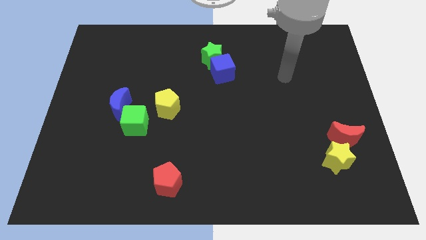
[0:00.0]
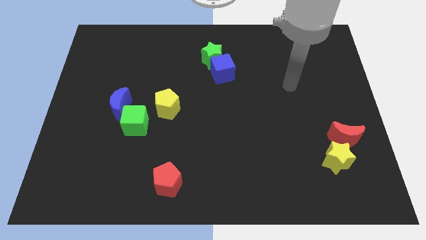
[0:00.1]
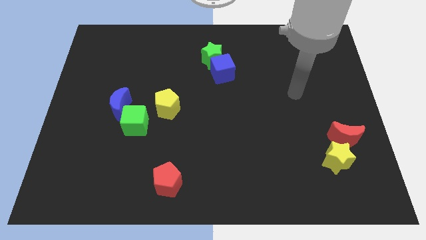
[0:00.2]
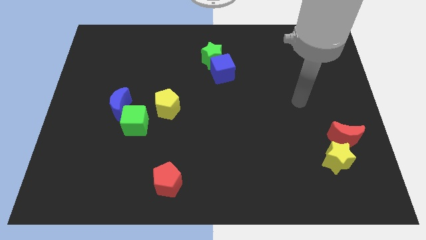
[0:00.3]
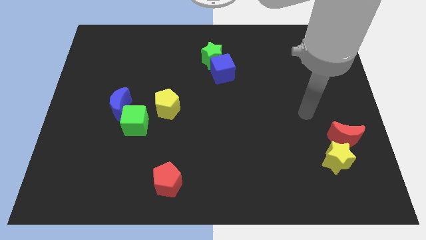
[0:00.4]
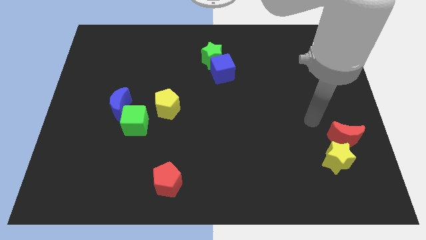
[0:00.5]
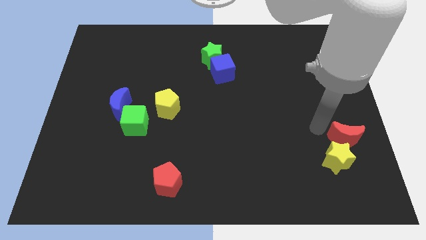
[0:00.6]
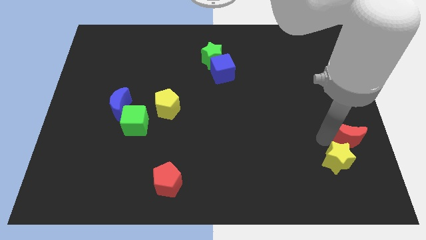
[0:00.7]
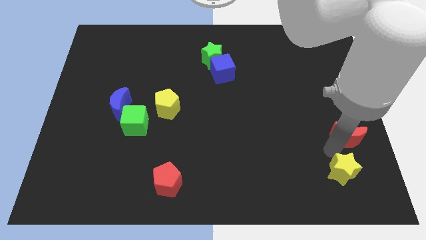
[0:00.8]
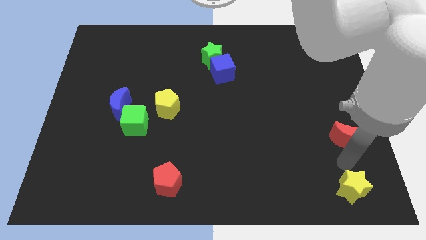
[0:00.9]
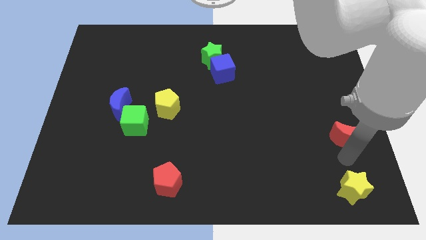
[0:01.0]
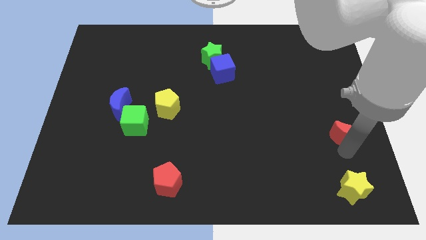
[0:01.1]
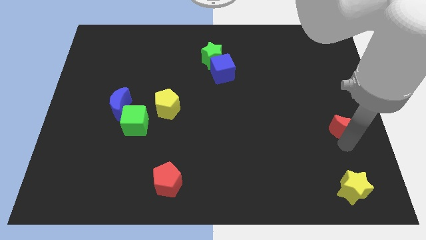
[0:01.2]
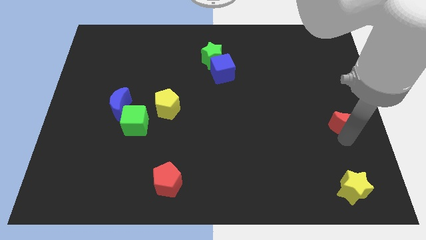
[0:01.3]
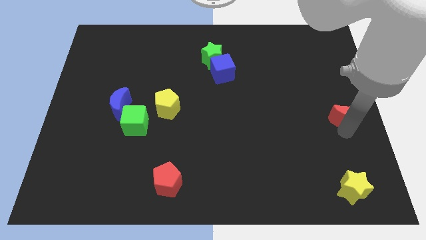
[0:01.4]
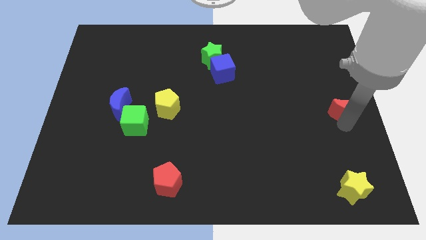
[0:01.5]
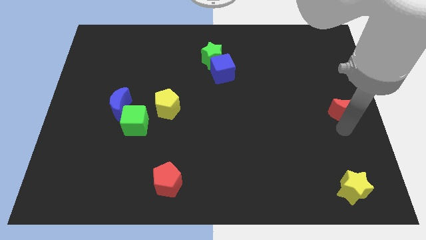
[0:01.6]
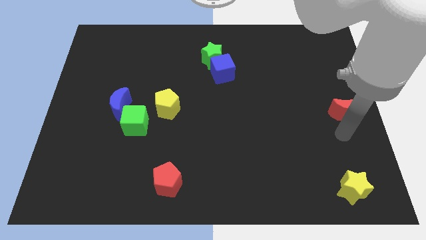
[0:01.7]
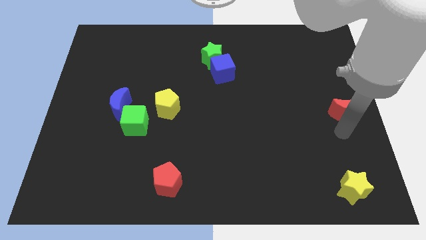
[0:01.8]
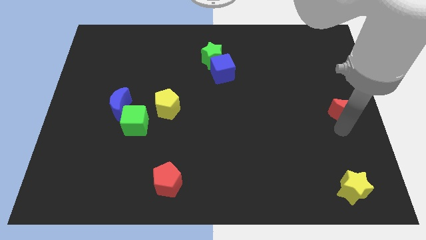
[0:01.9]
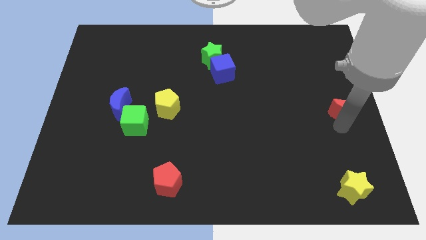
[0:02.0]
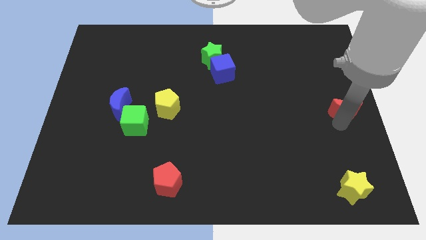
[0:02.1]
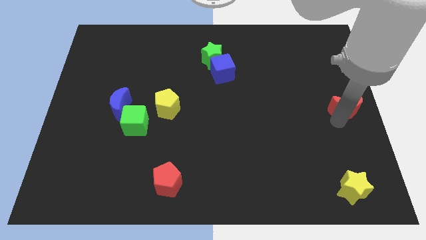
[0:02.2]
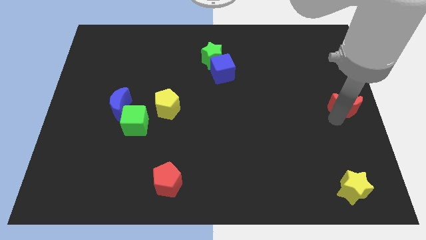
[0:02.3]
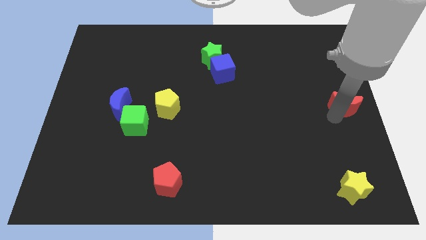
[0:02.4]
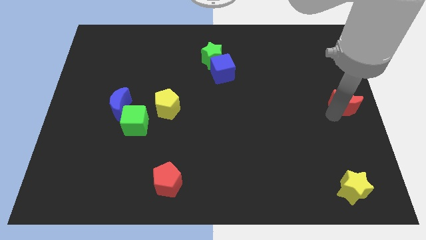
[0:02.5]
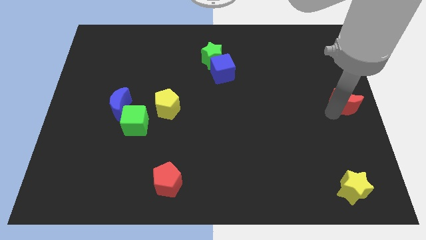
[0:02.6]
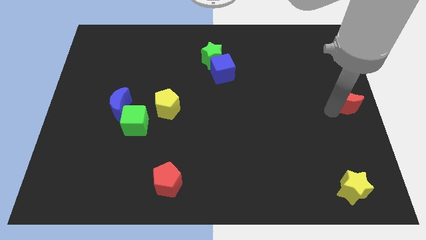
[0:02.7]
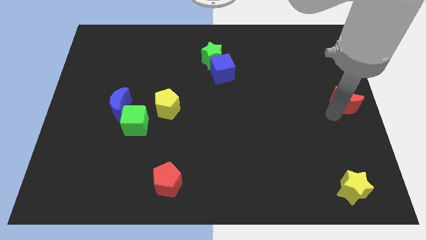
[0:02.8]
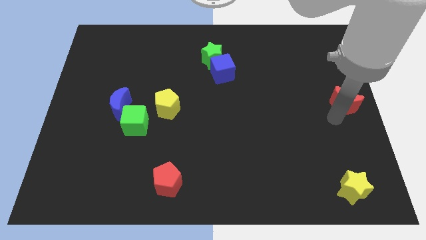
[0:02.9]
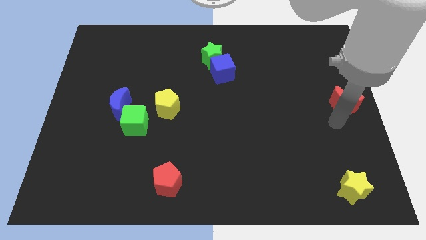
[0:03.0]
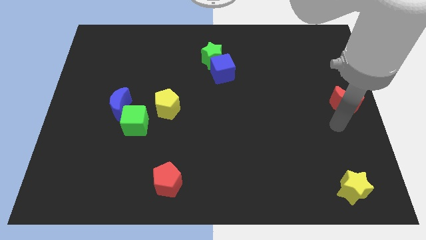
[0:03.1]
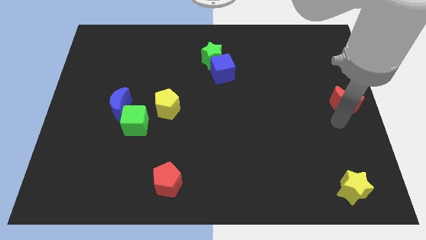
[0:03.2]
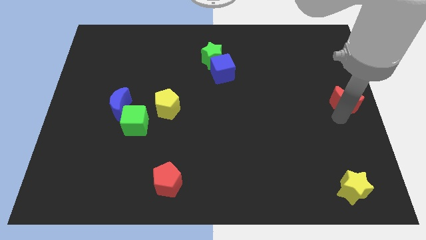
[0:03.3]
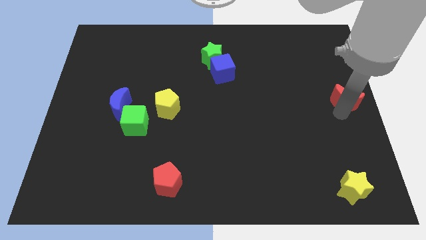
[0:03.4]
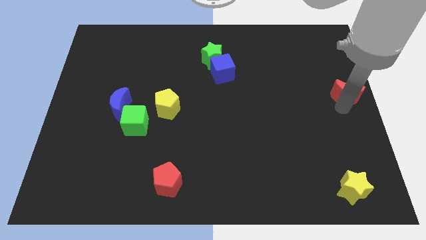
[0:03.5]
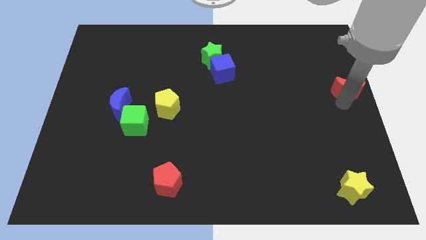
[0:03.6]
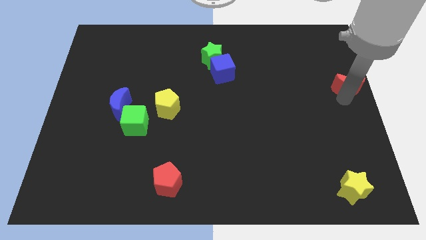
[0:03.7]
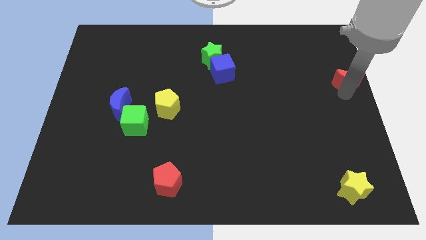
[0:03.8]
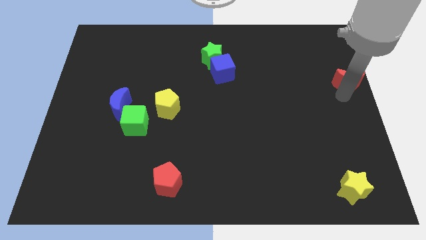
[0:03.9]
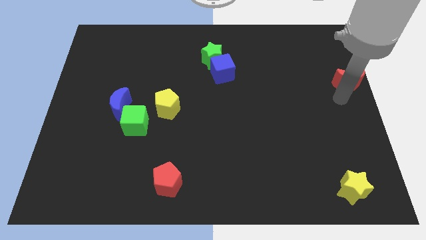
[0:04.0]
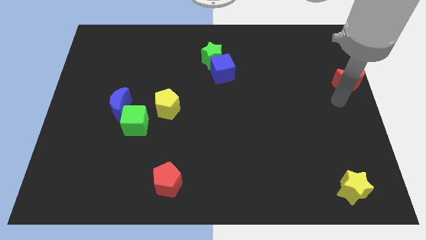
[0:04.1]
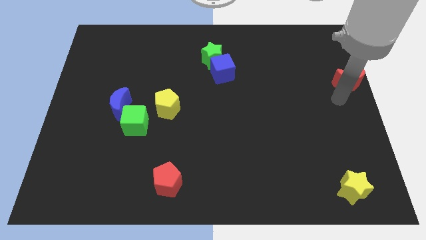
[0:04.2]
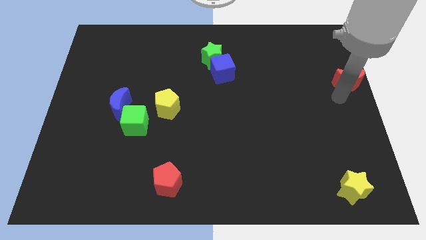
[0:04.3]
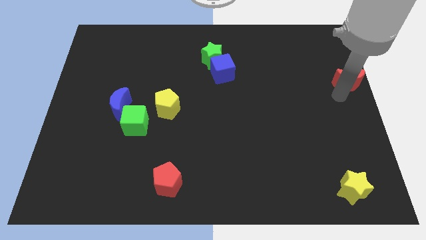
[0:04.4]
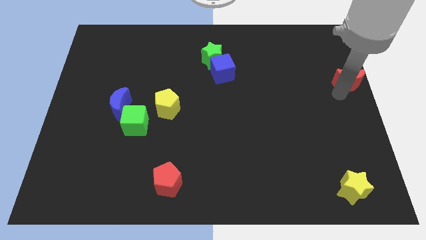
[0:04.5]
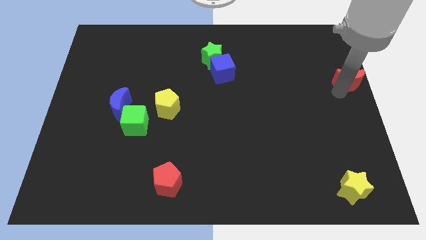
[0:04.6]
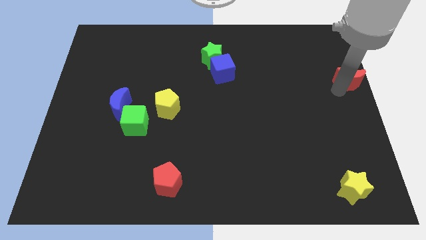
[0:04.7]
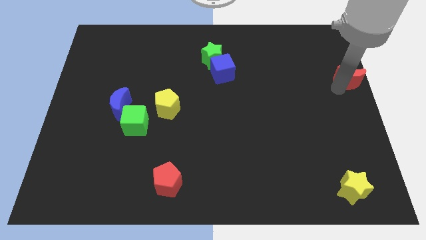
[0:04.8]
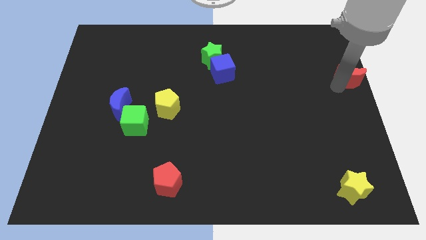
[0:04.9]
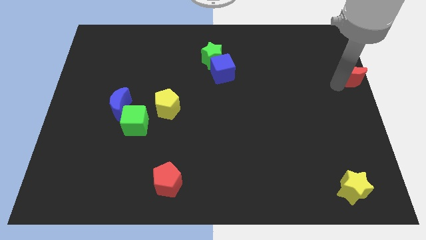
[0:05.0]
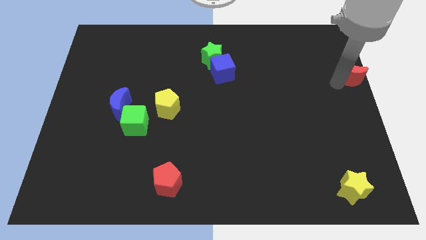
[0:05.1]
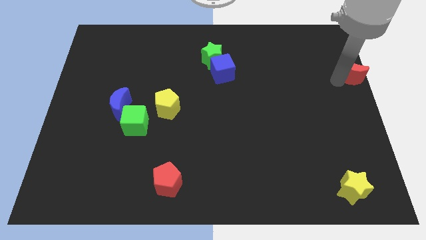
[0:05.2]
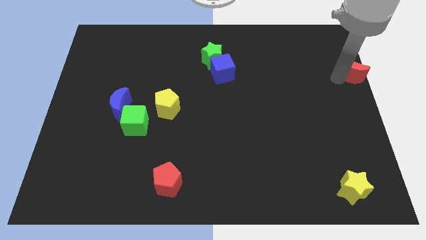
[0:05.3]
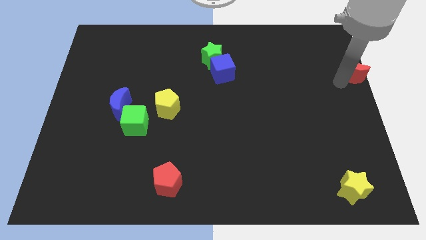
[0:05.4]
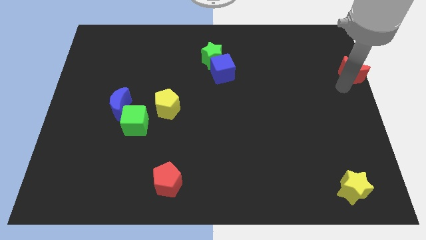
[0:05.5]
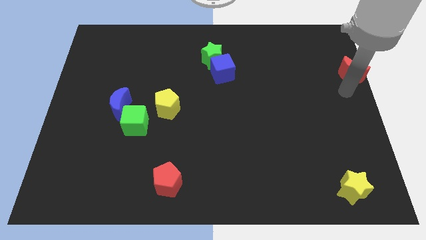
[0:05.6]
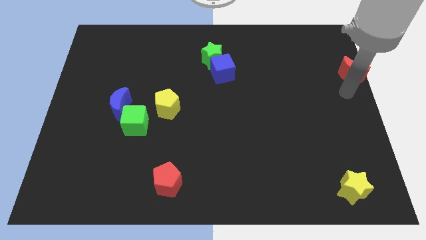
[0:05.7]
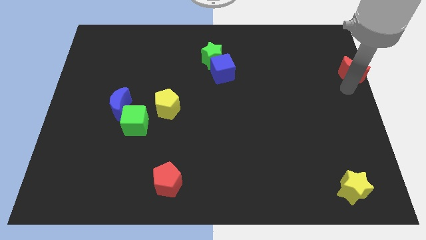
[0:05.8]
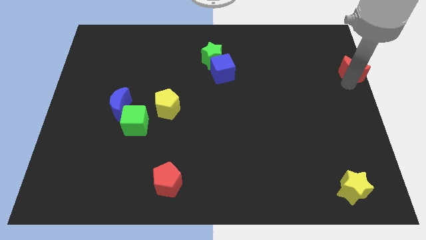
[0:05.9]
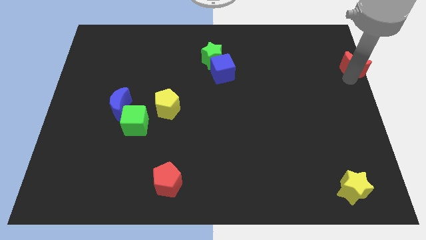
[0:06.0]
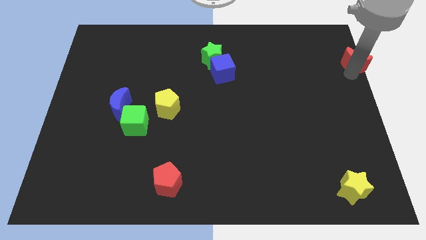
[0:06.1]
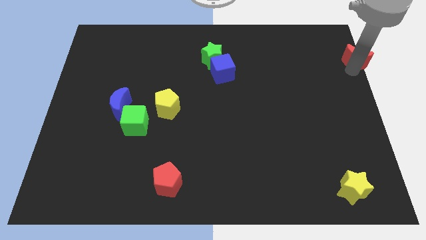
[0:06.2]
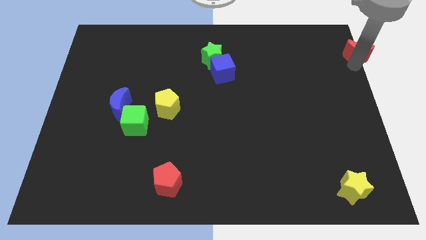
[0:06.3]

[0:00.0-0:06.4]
move the red moon to the top right of the board
